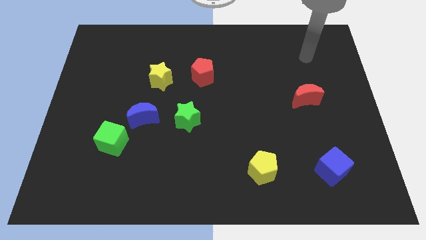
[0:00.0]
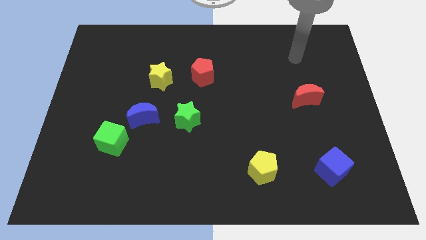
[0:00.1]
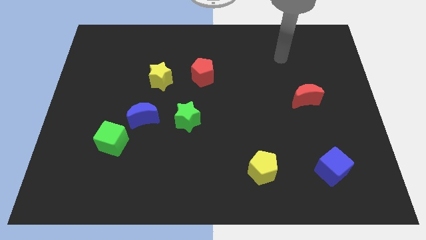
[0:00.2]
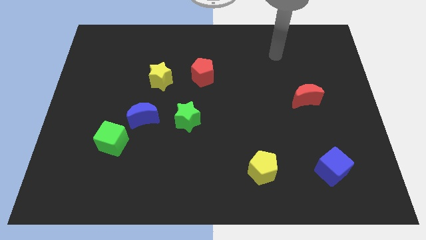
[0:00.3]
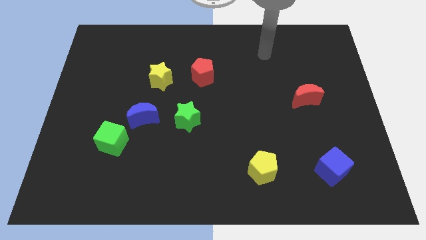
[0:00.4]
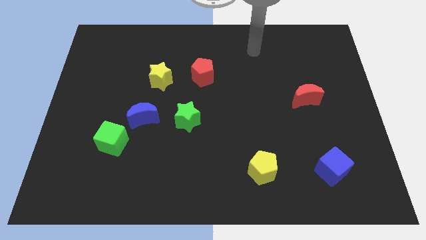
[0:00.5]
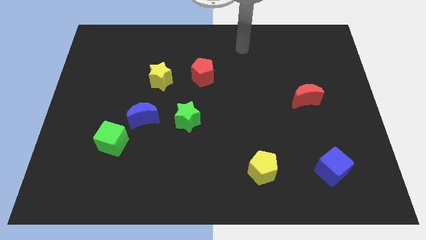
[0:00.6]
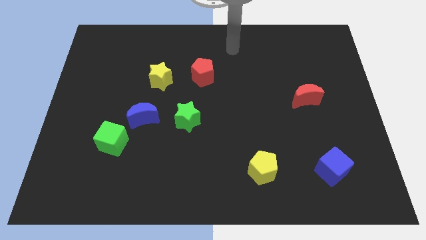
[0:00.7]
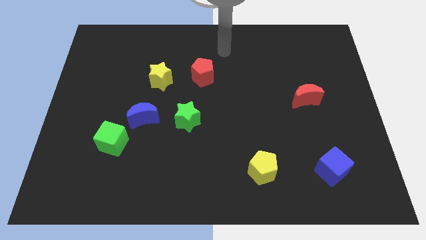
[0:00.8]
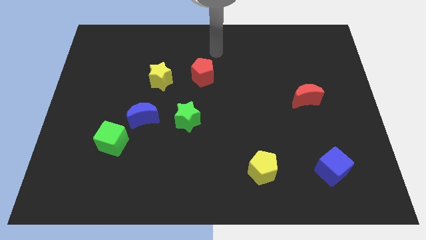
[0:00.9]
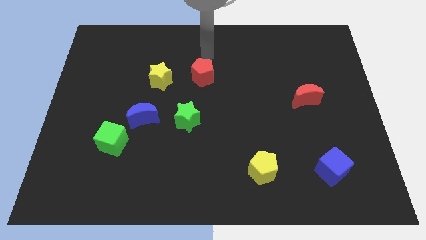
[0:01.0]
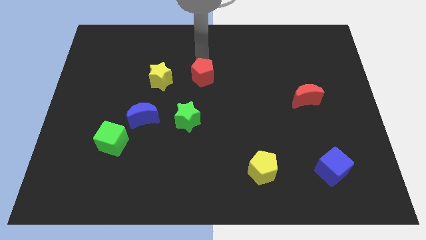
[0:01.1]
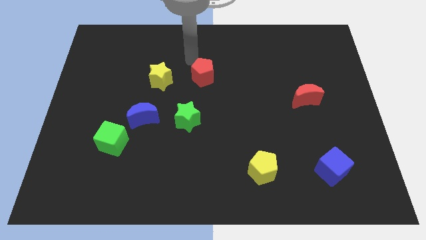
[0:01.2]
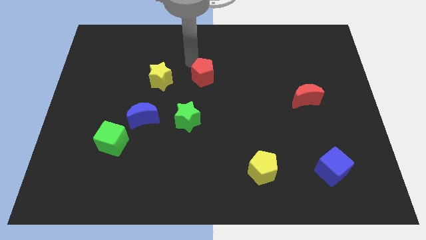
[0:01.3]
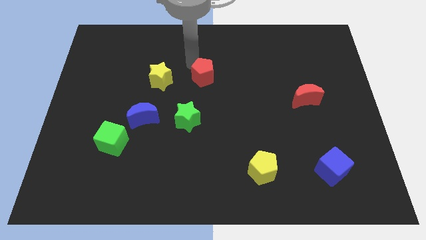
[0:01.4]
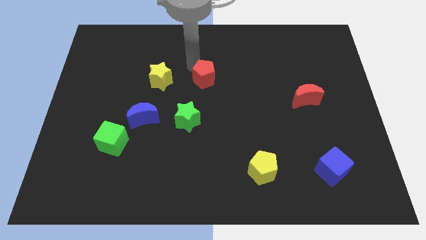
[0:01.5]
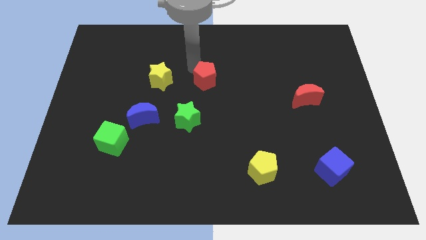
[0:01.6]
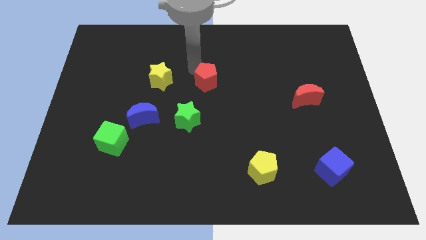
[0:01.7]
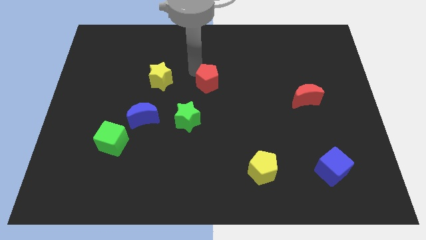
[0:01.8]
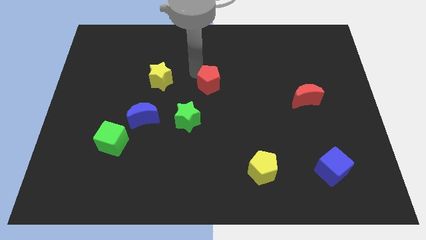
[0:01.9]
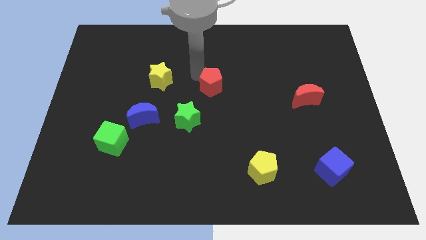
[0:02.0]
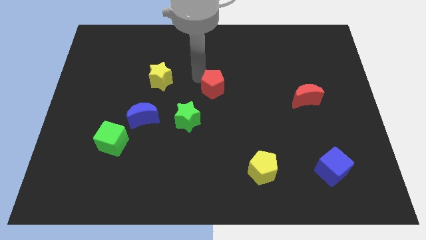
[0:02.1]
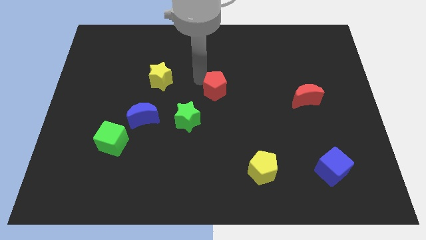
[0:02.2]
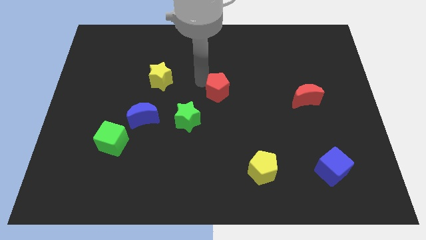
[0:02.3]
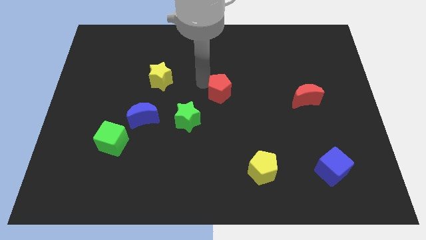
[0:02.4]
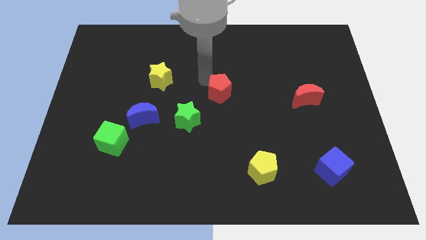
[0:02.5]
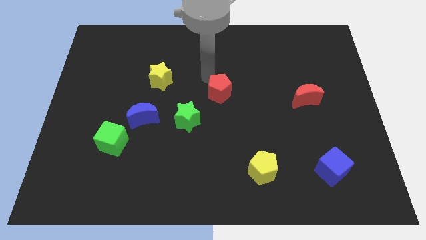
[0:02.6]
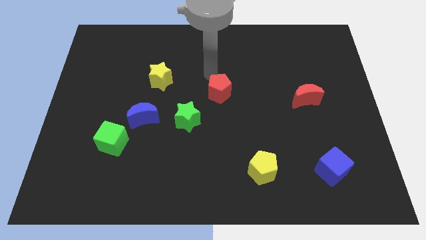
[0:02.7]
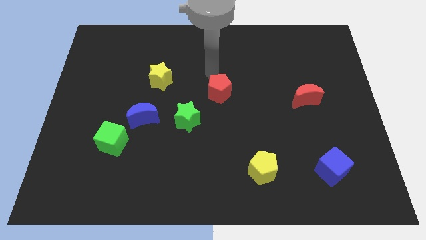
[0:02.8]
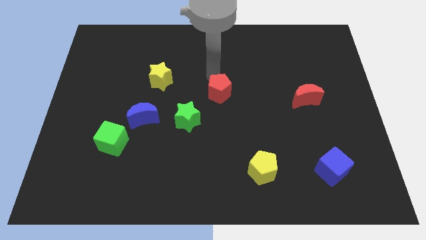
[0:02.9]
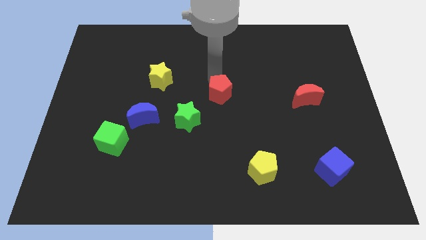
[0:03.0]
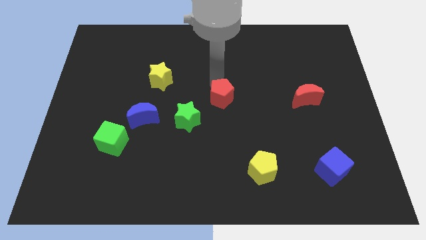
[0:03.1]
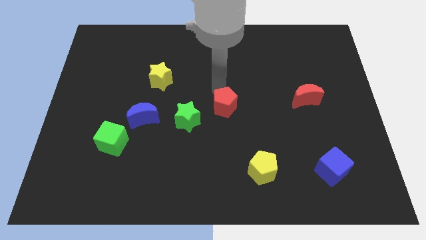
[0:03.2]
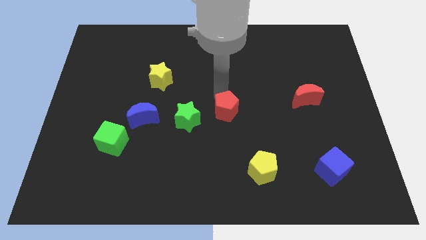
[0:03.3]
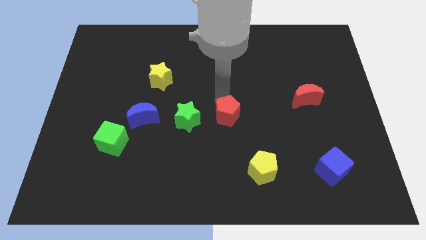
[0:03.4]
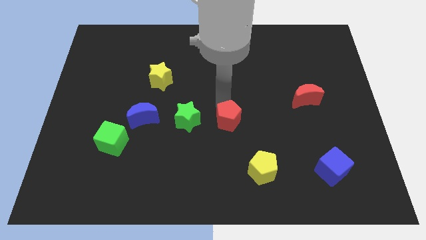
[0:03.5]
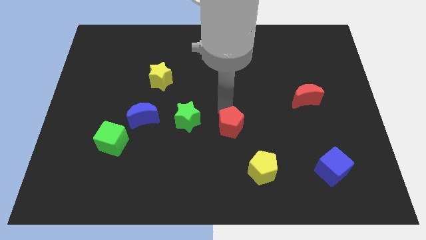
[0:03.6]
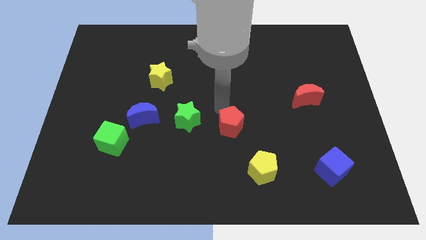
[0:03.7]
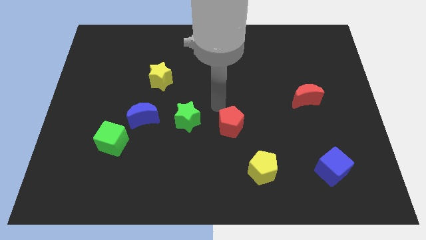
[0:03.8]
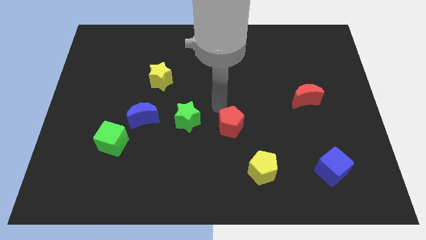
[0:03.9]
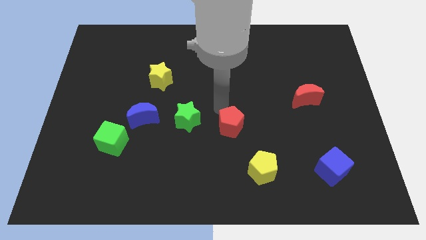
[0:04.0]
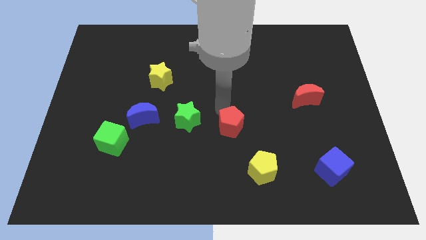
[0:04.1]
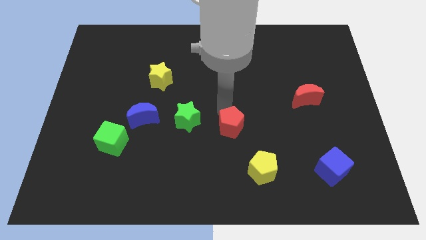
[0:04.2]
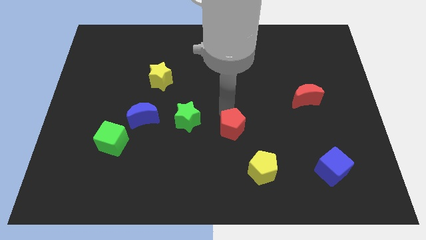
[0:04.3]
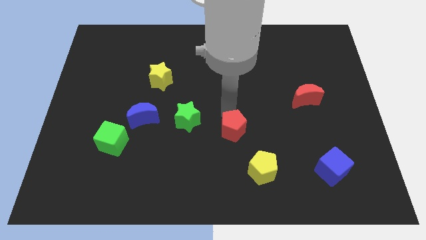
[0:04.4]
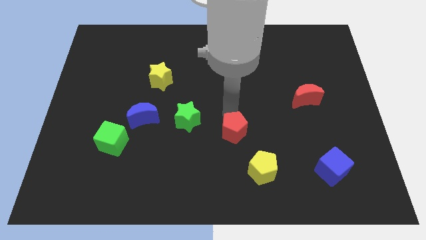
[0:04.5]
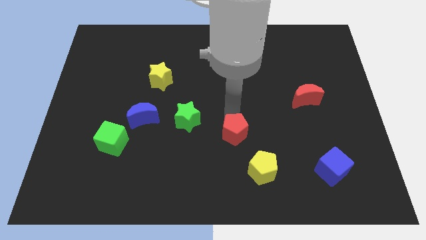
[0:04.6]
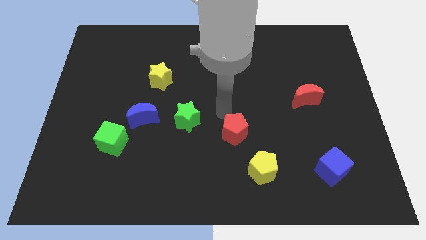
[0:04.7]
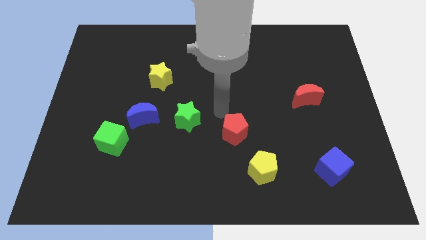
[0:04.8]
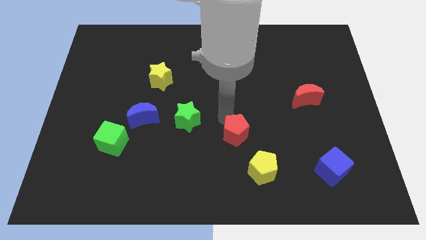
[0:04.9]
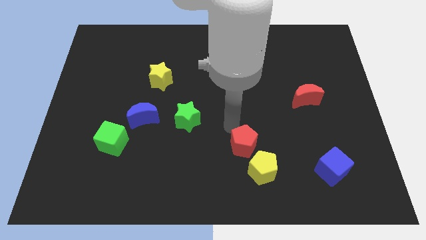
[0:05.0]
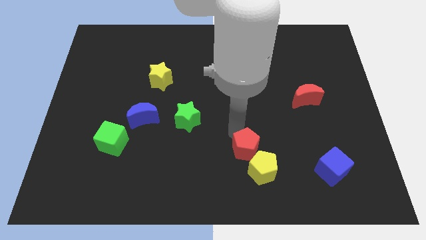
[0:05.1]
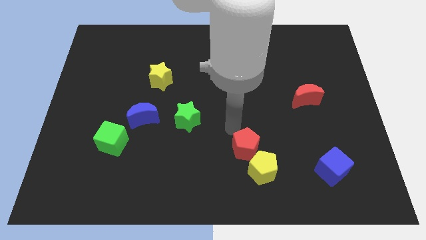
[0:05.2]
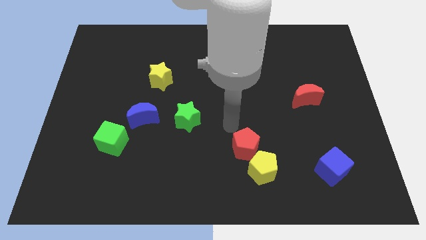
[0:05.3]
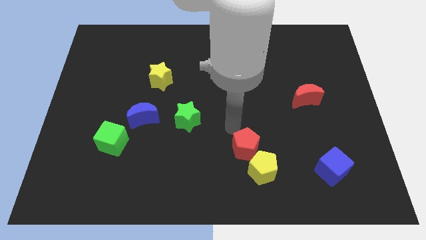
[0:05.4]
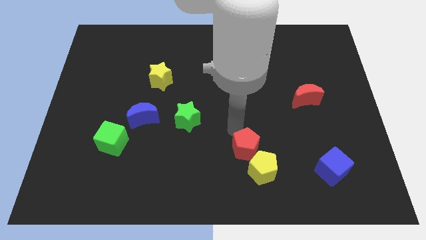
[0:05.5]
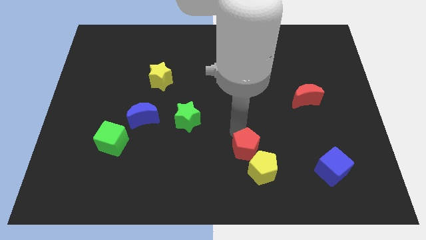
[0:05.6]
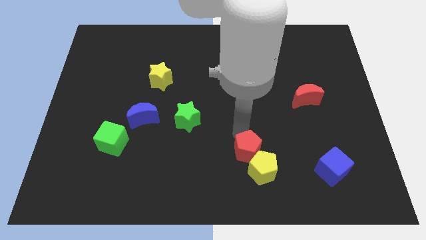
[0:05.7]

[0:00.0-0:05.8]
push the red pentagon to the yellow pentagon

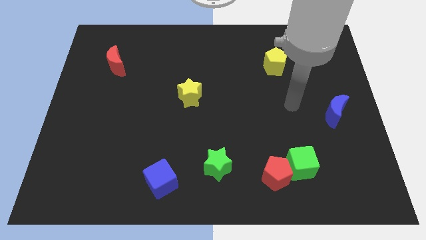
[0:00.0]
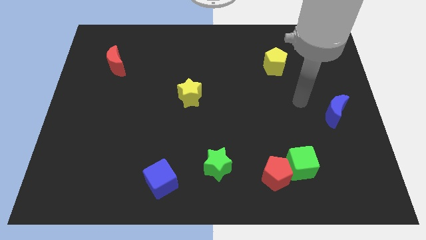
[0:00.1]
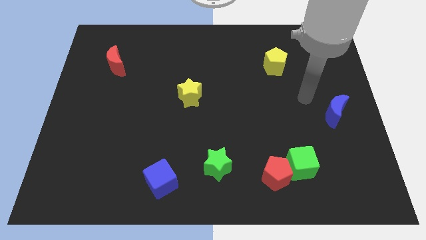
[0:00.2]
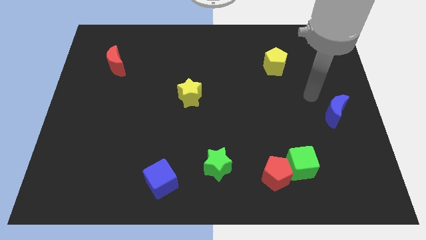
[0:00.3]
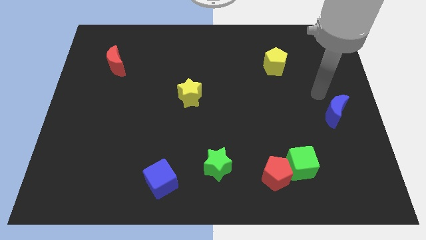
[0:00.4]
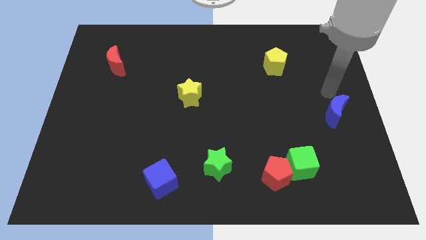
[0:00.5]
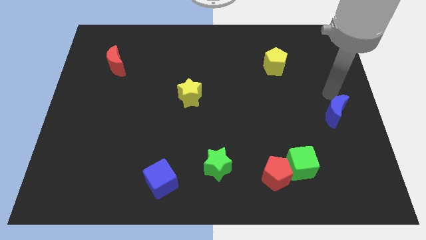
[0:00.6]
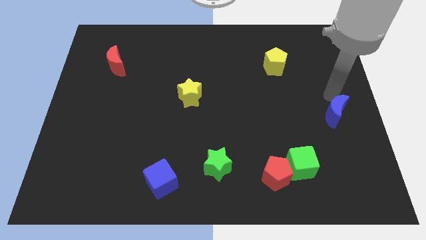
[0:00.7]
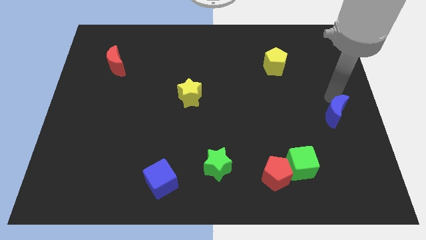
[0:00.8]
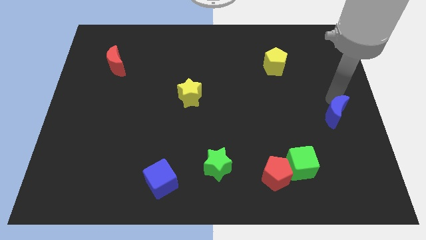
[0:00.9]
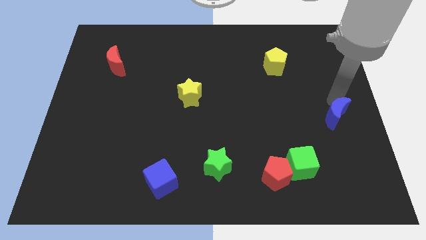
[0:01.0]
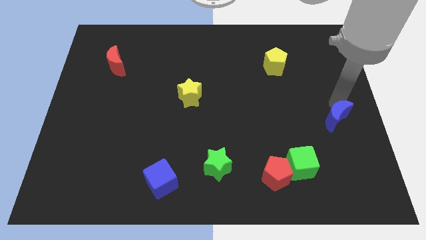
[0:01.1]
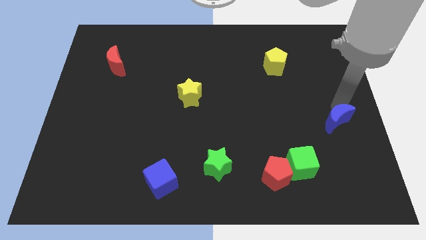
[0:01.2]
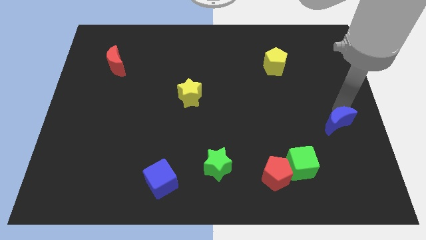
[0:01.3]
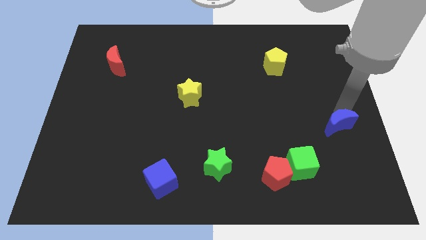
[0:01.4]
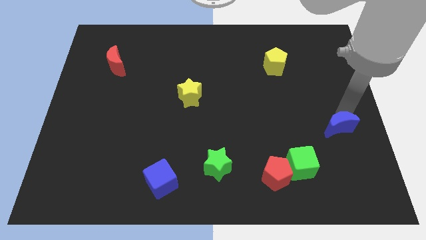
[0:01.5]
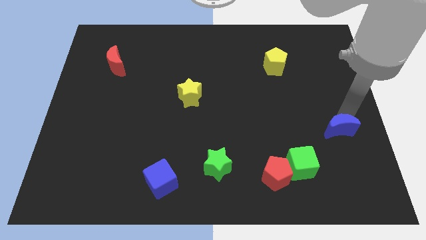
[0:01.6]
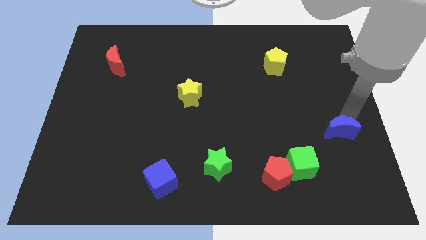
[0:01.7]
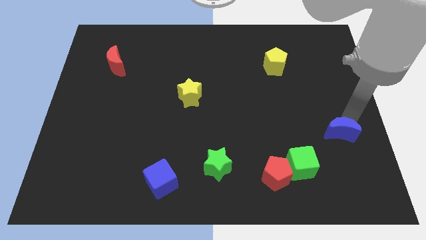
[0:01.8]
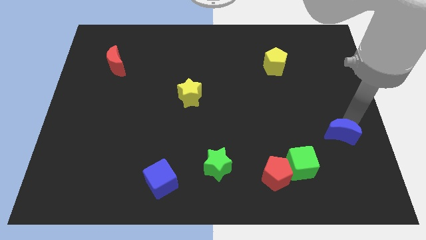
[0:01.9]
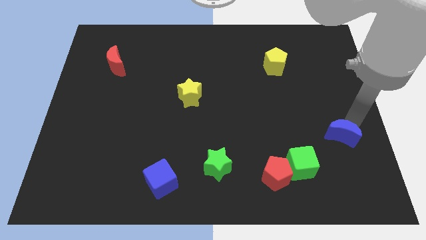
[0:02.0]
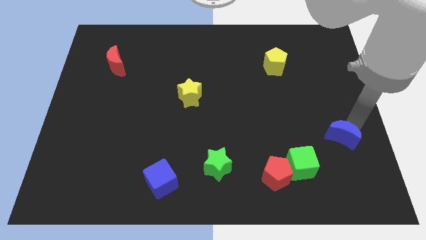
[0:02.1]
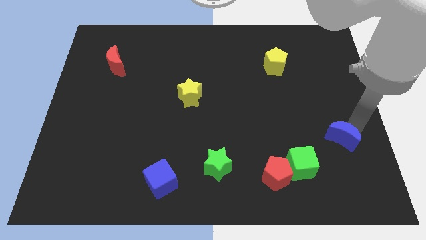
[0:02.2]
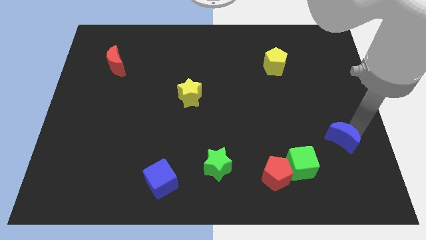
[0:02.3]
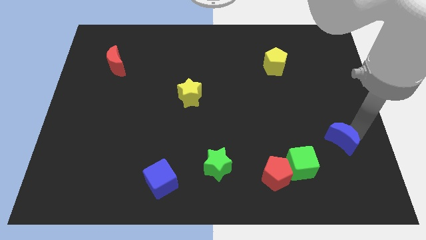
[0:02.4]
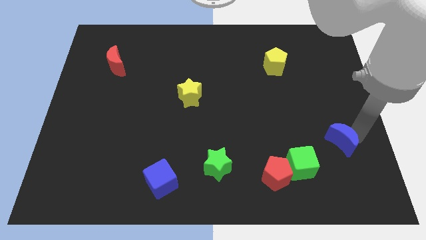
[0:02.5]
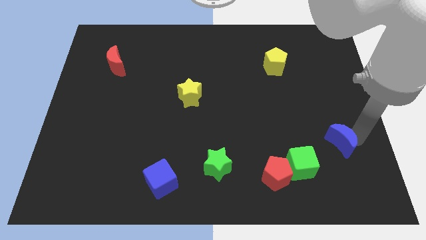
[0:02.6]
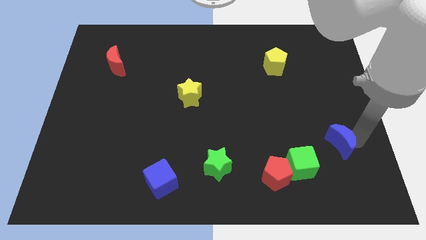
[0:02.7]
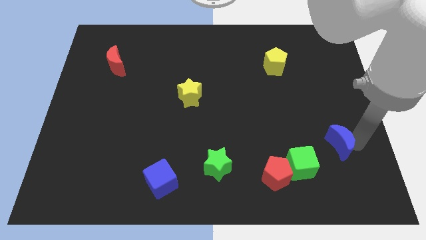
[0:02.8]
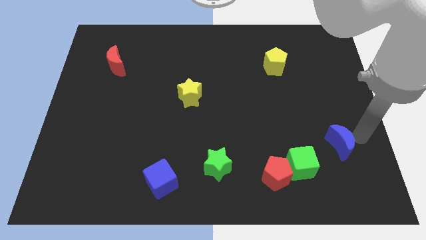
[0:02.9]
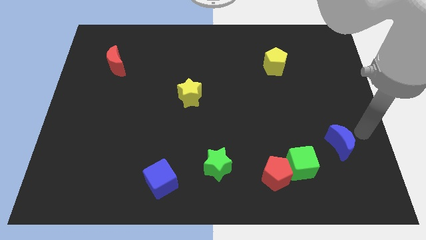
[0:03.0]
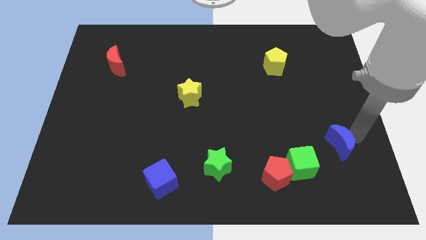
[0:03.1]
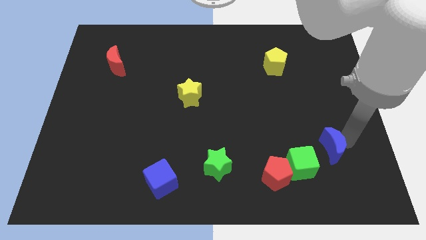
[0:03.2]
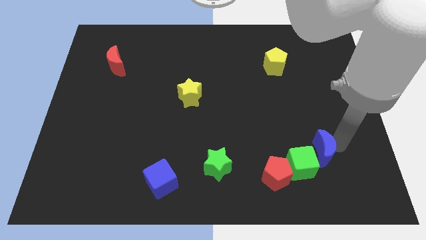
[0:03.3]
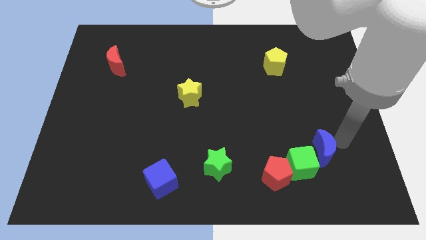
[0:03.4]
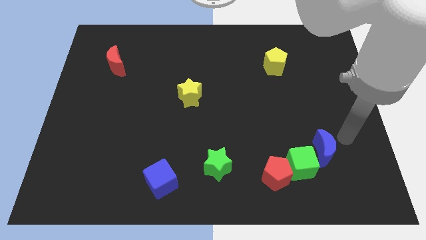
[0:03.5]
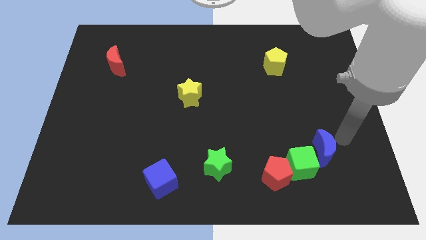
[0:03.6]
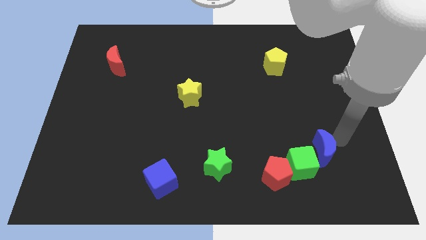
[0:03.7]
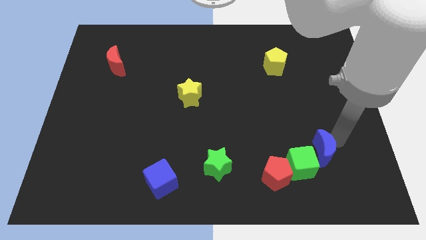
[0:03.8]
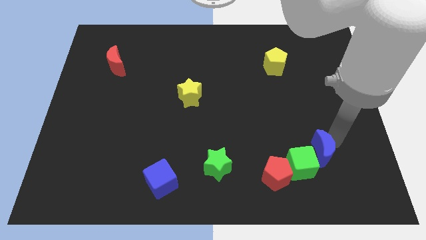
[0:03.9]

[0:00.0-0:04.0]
slide the blue moon to the green cube
